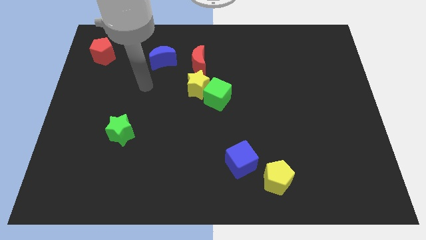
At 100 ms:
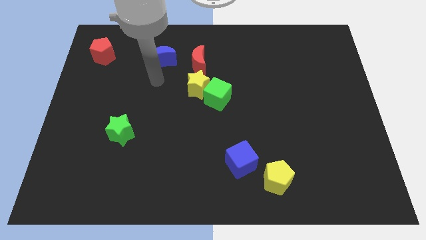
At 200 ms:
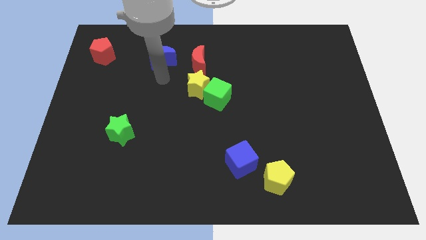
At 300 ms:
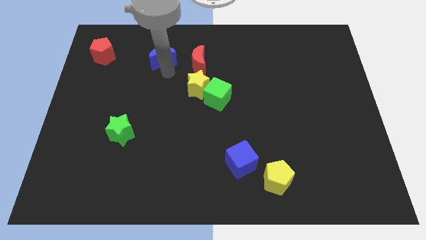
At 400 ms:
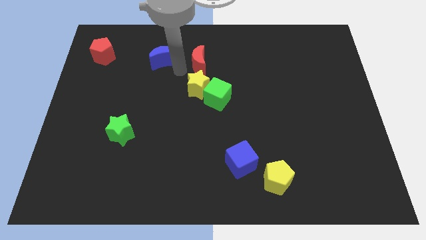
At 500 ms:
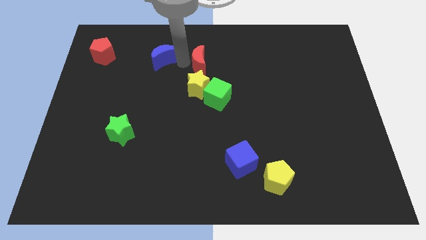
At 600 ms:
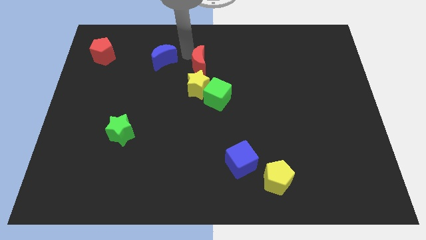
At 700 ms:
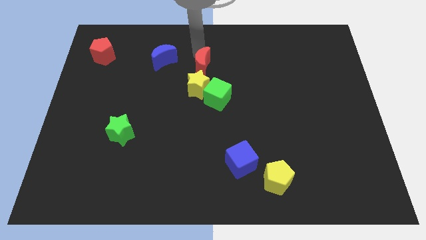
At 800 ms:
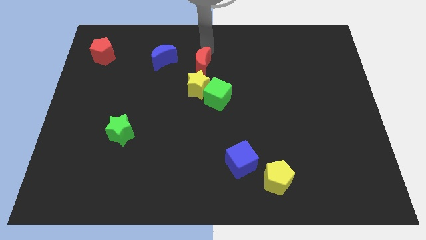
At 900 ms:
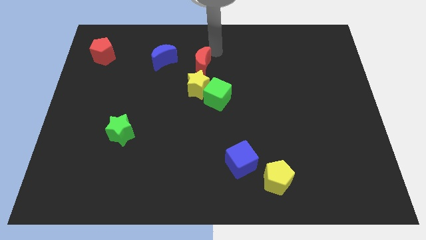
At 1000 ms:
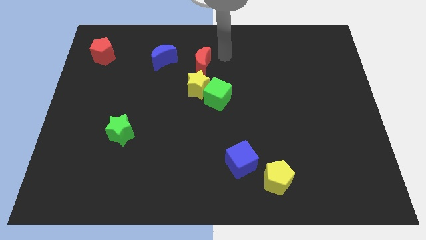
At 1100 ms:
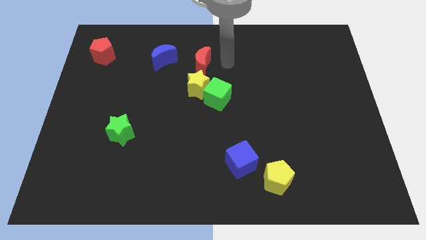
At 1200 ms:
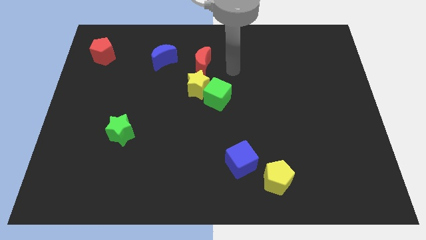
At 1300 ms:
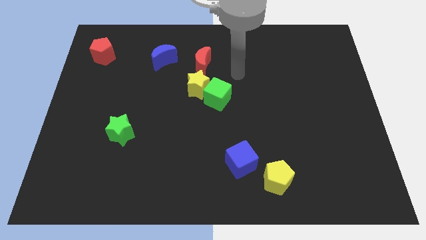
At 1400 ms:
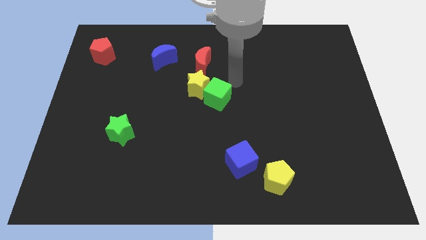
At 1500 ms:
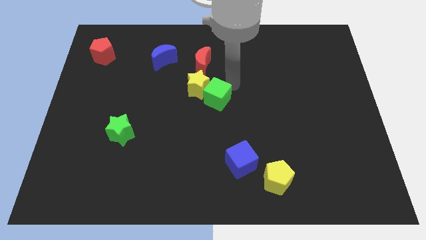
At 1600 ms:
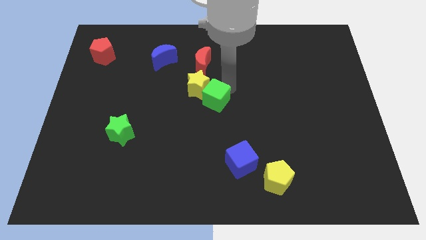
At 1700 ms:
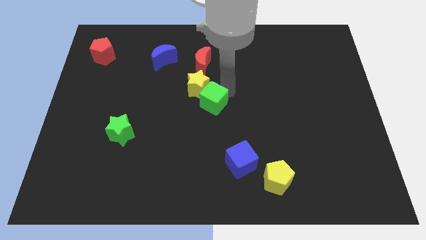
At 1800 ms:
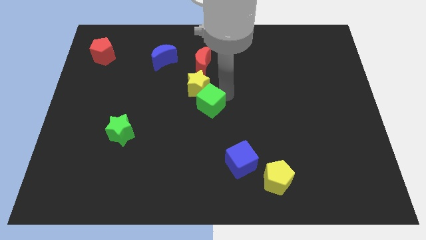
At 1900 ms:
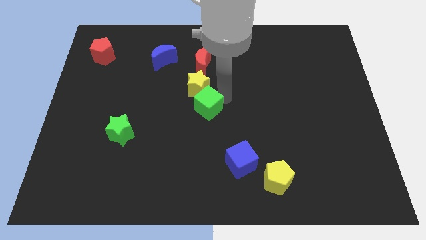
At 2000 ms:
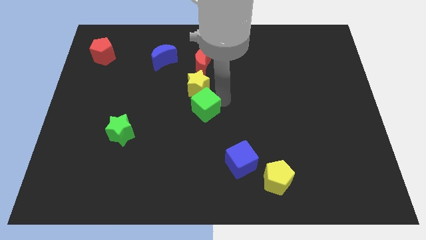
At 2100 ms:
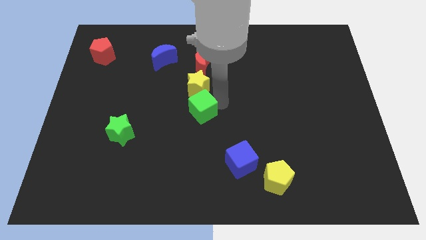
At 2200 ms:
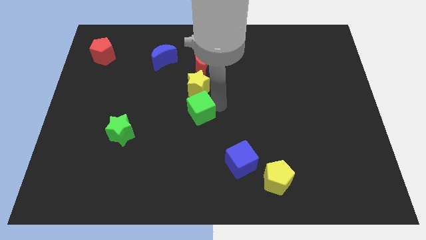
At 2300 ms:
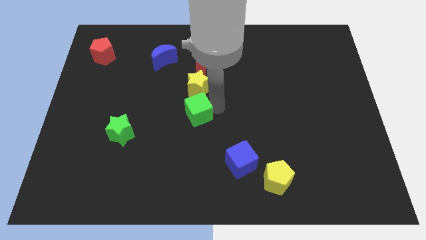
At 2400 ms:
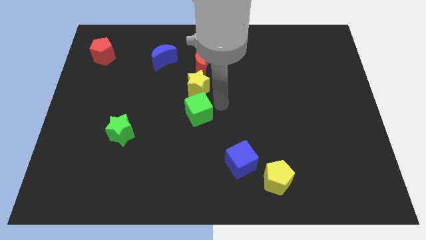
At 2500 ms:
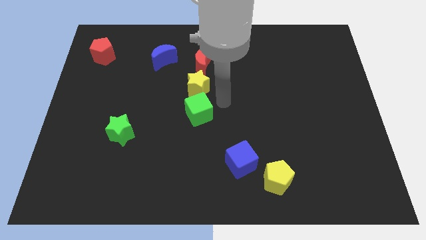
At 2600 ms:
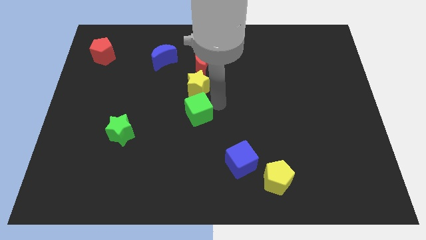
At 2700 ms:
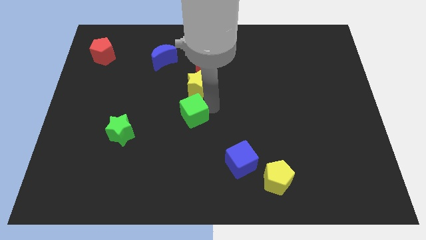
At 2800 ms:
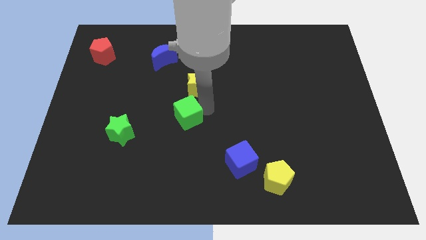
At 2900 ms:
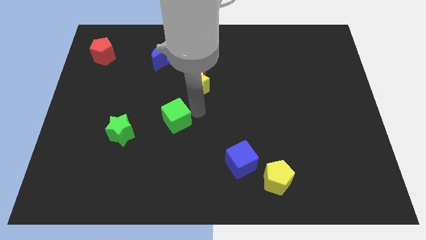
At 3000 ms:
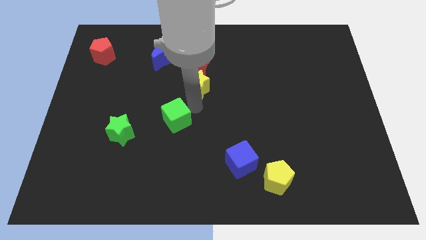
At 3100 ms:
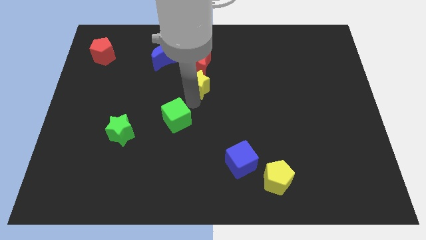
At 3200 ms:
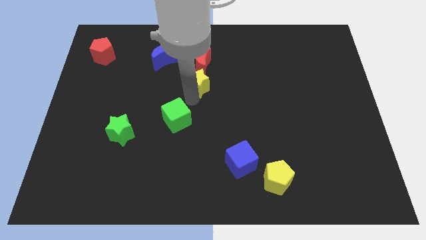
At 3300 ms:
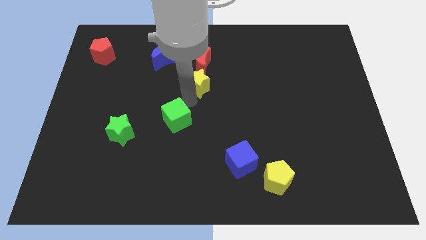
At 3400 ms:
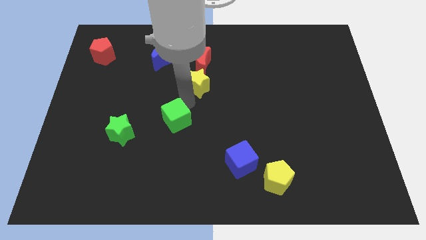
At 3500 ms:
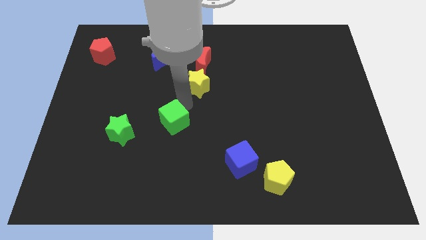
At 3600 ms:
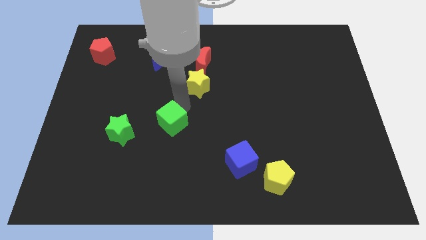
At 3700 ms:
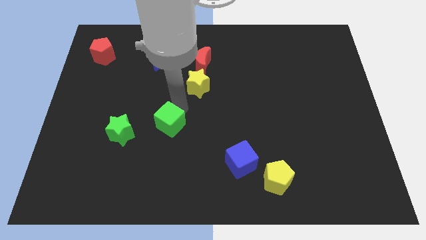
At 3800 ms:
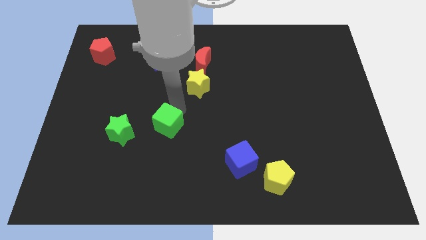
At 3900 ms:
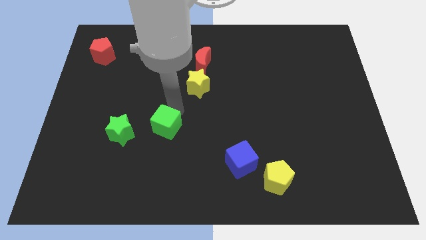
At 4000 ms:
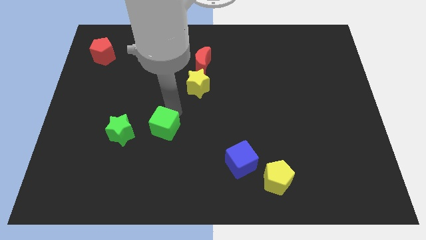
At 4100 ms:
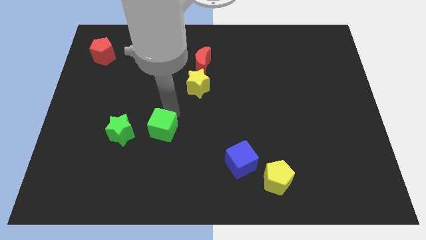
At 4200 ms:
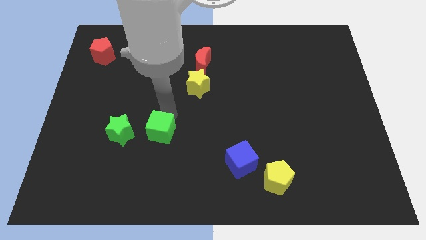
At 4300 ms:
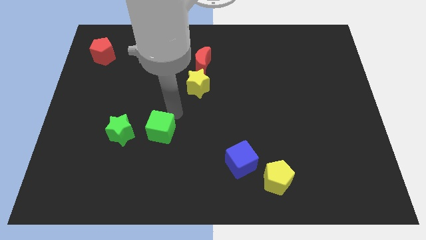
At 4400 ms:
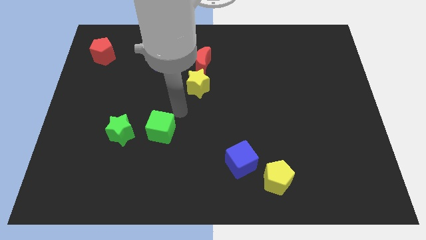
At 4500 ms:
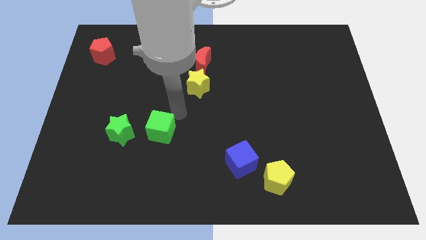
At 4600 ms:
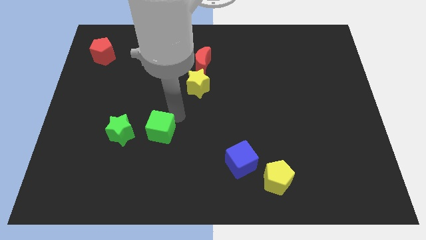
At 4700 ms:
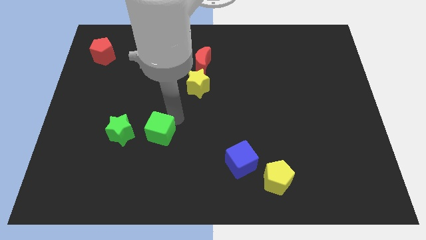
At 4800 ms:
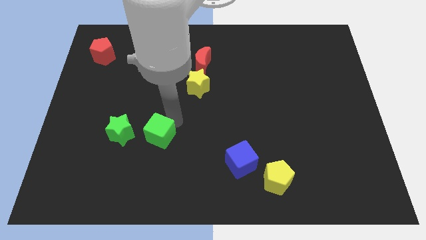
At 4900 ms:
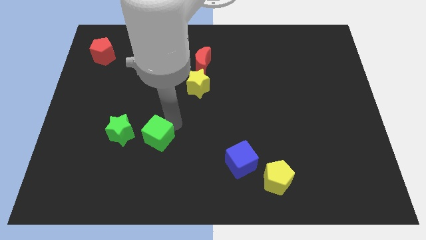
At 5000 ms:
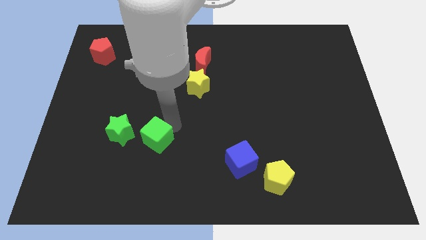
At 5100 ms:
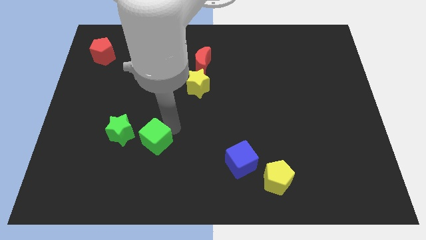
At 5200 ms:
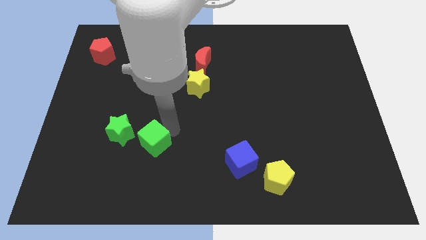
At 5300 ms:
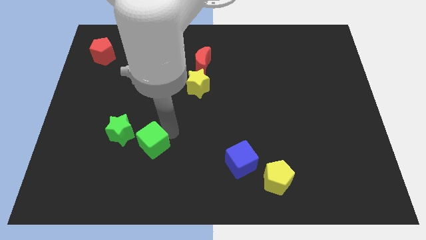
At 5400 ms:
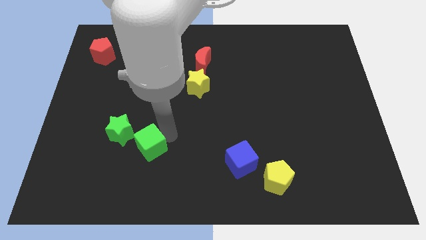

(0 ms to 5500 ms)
slide the green cube down and left

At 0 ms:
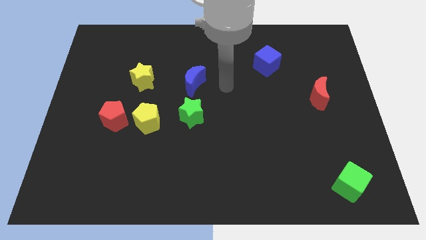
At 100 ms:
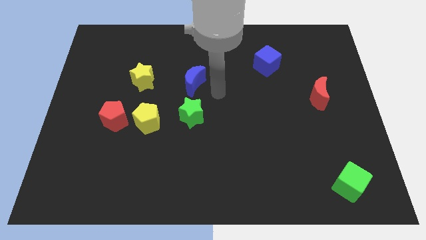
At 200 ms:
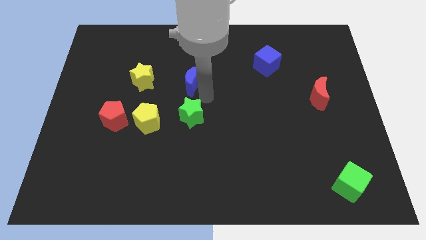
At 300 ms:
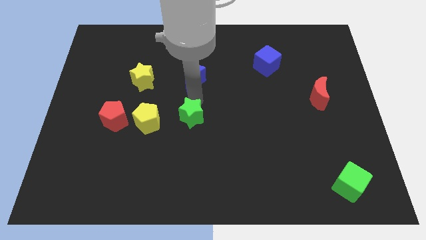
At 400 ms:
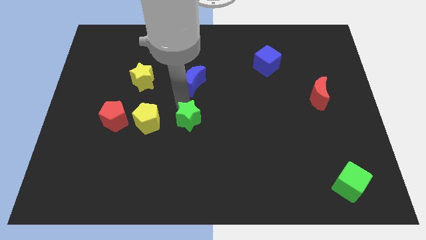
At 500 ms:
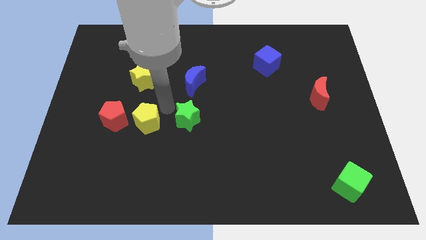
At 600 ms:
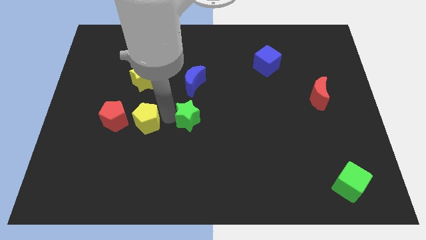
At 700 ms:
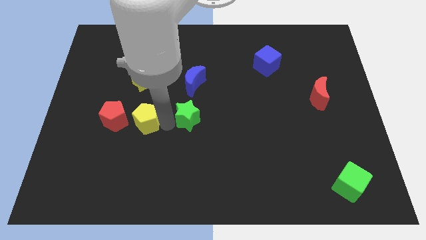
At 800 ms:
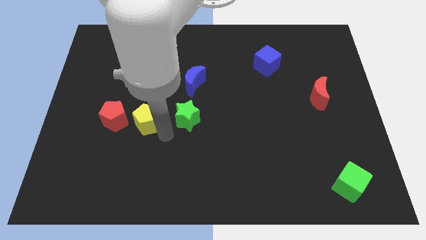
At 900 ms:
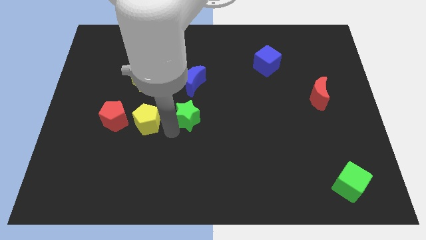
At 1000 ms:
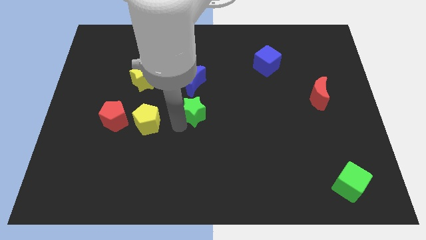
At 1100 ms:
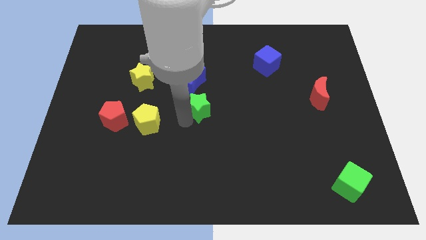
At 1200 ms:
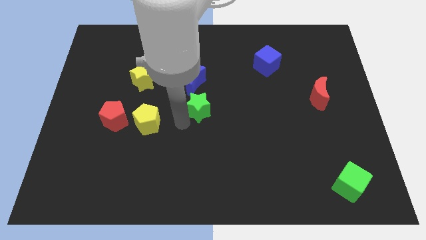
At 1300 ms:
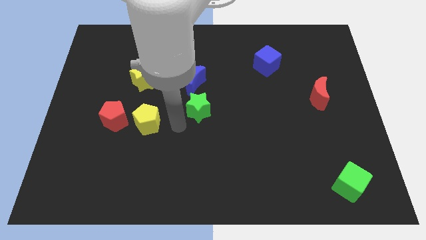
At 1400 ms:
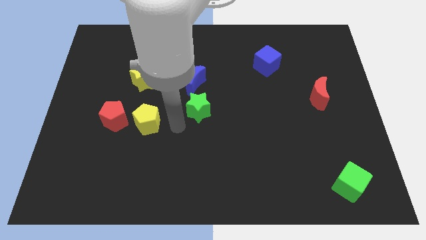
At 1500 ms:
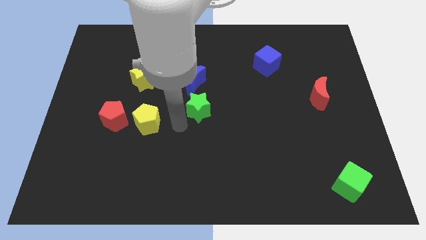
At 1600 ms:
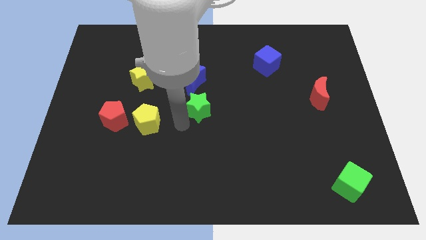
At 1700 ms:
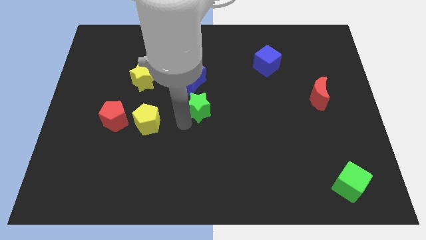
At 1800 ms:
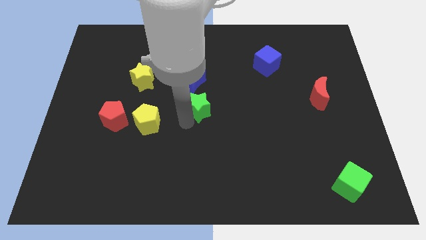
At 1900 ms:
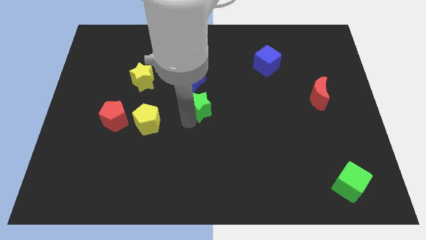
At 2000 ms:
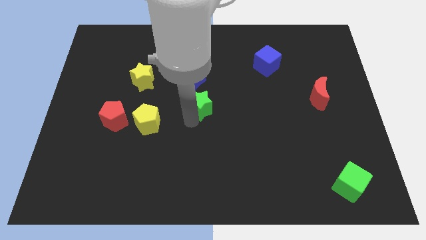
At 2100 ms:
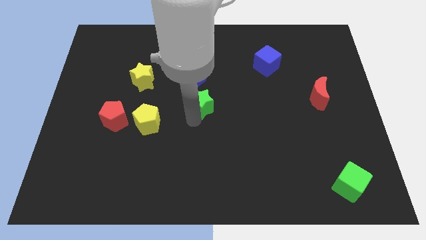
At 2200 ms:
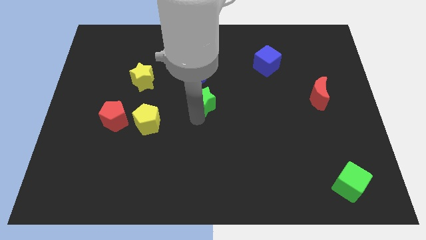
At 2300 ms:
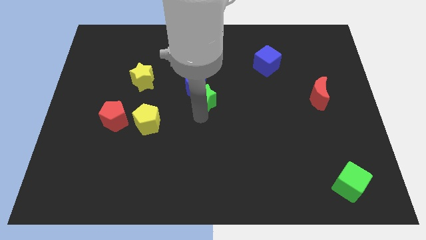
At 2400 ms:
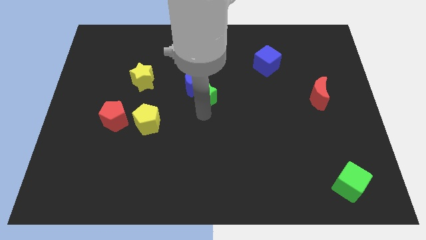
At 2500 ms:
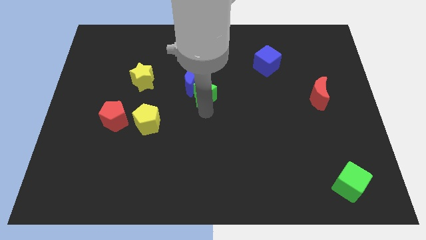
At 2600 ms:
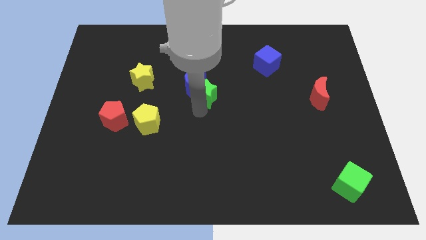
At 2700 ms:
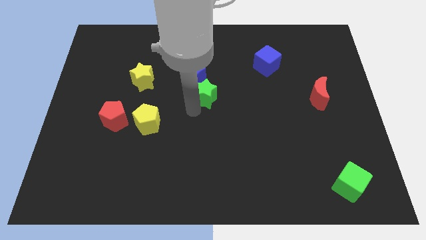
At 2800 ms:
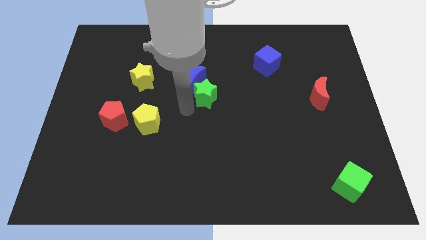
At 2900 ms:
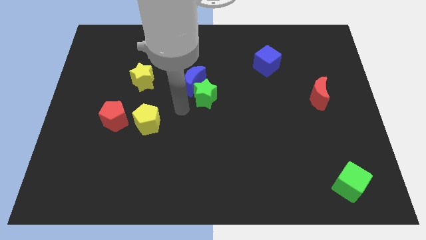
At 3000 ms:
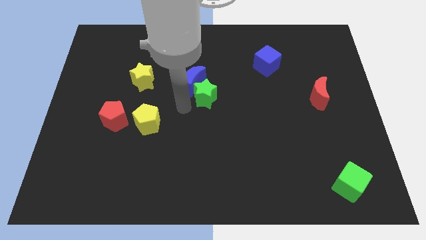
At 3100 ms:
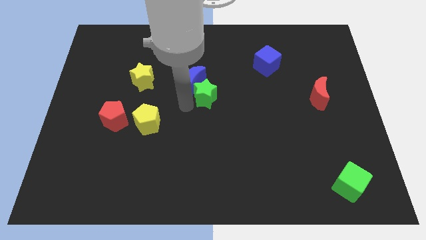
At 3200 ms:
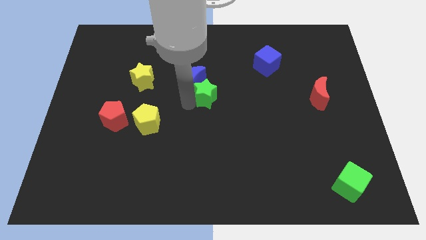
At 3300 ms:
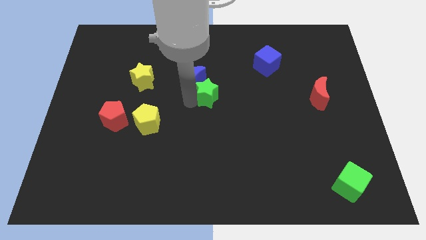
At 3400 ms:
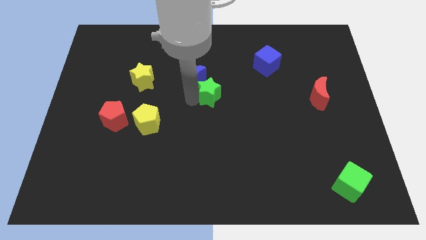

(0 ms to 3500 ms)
push the green star diagonally up and to the right a little
